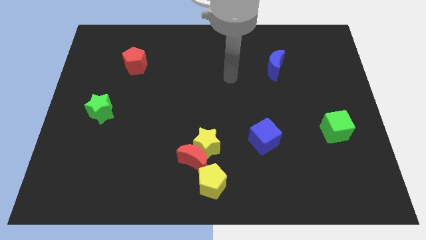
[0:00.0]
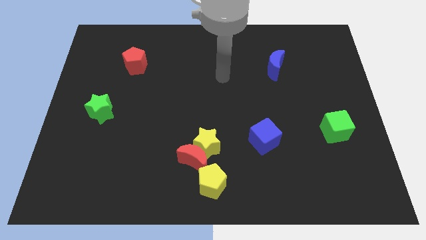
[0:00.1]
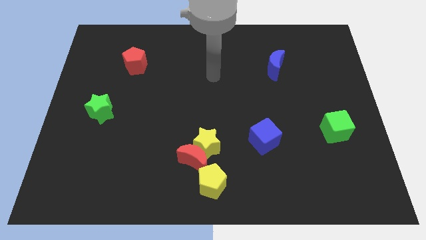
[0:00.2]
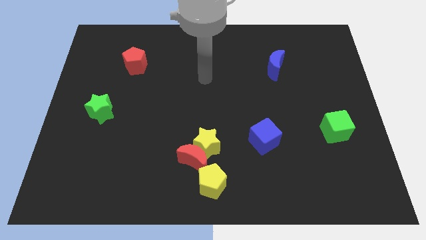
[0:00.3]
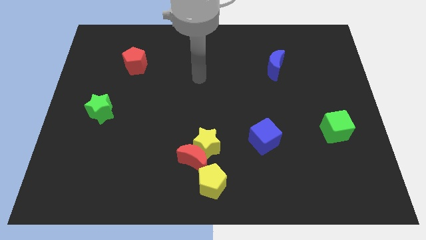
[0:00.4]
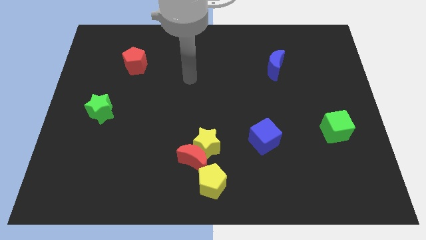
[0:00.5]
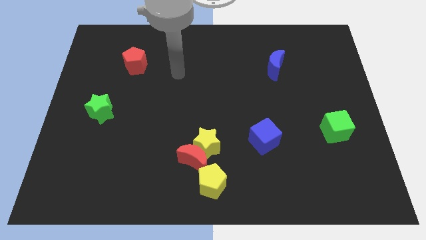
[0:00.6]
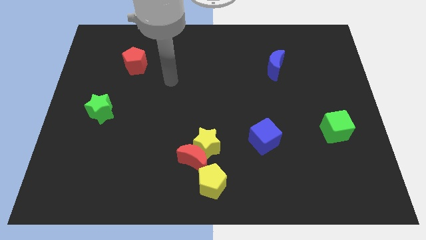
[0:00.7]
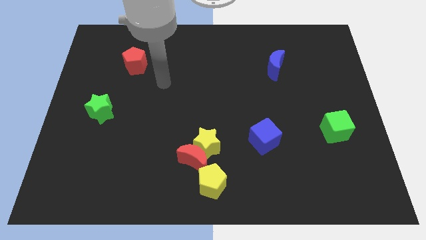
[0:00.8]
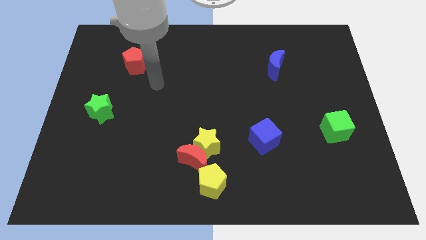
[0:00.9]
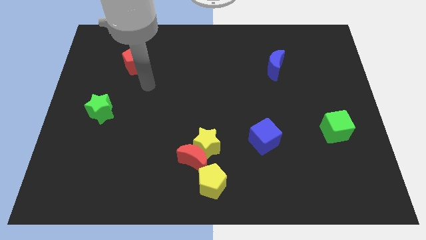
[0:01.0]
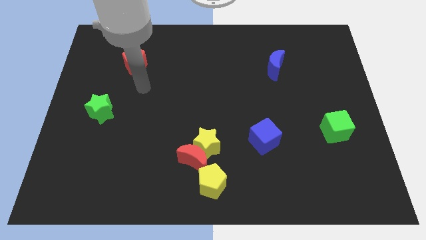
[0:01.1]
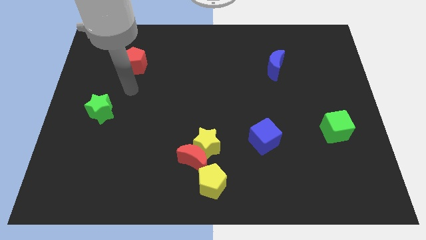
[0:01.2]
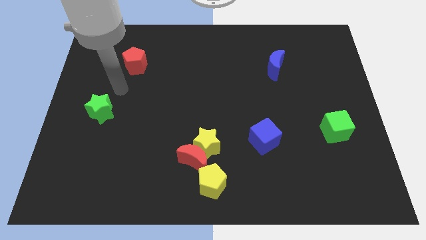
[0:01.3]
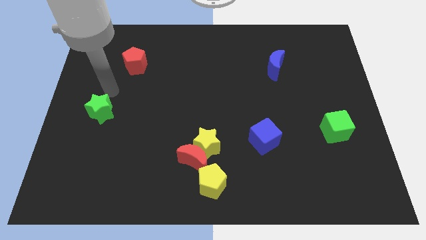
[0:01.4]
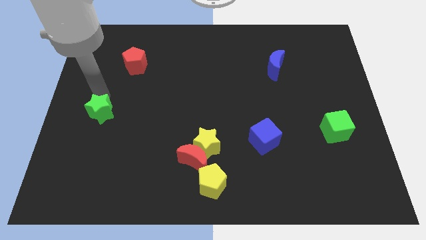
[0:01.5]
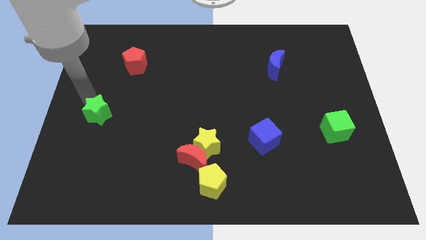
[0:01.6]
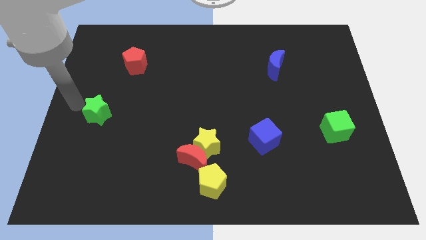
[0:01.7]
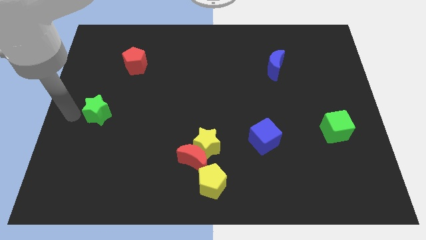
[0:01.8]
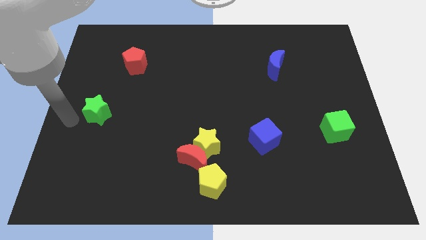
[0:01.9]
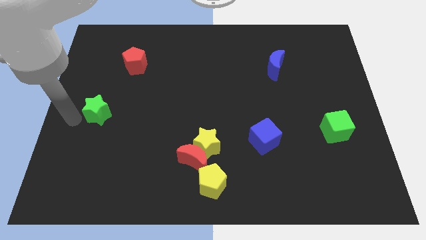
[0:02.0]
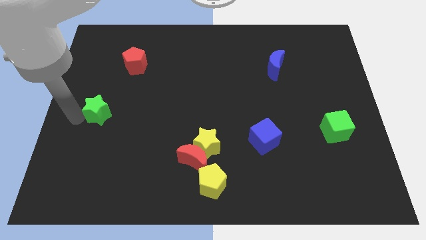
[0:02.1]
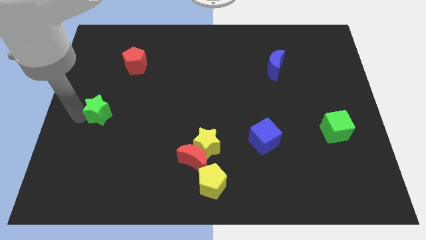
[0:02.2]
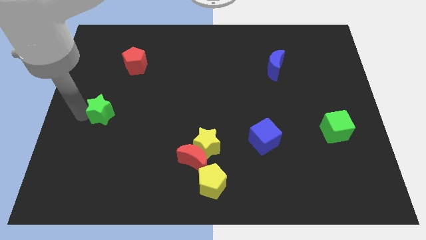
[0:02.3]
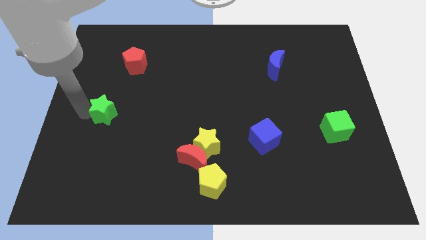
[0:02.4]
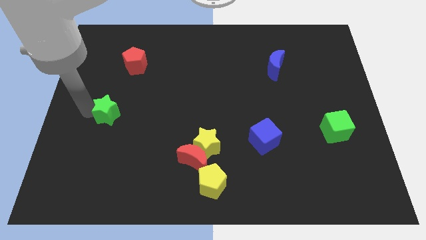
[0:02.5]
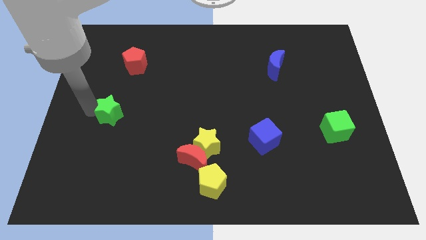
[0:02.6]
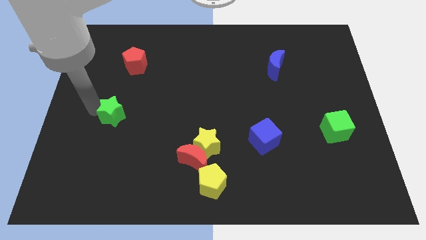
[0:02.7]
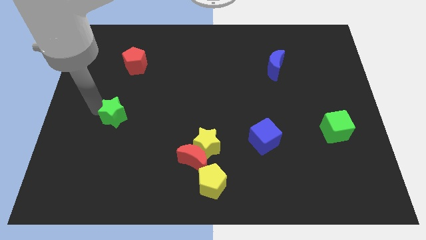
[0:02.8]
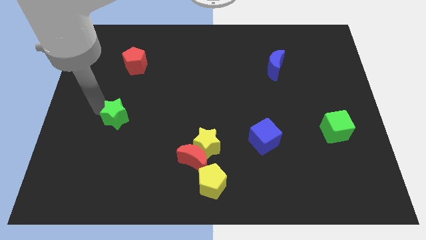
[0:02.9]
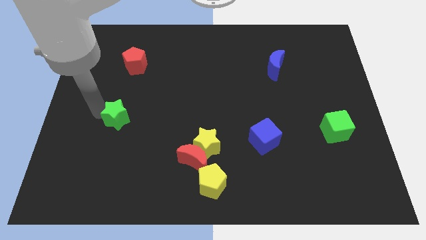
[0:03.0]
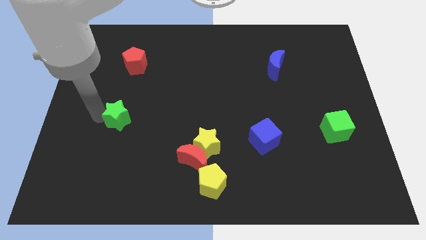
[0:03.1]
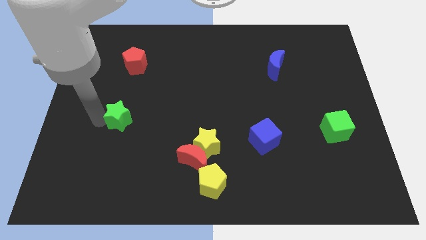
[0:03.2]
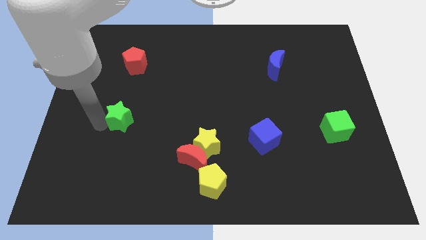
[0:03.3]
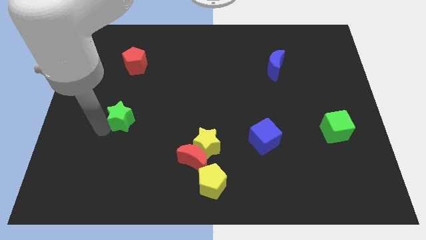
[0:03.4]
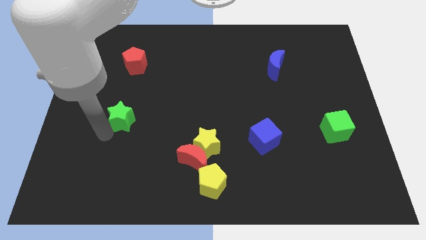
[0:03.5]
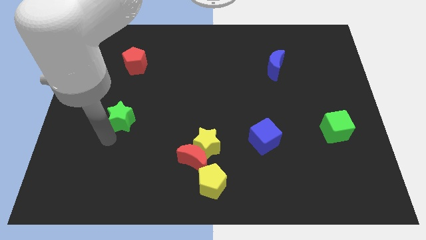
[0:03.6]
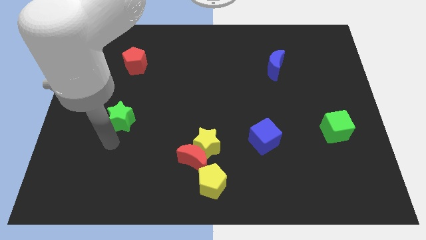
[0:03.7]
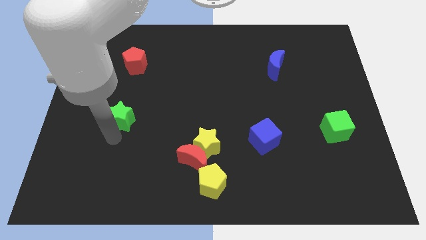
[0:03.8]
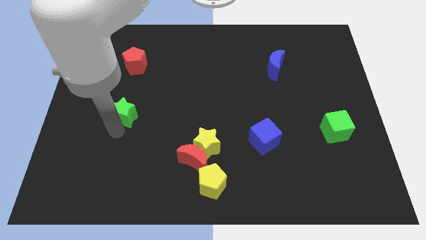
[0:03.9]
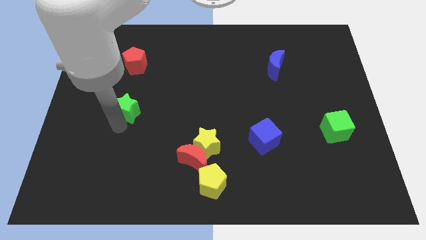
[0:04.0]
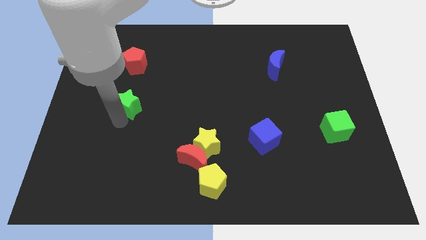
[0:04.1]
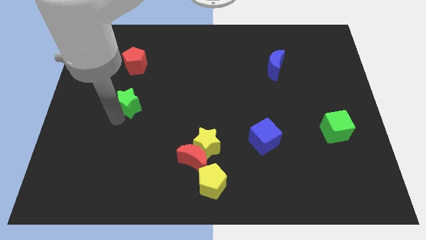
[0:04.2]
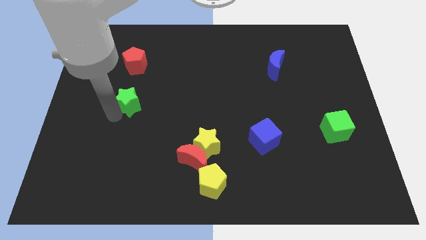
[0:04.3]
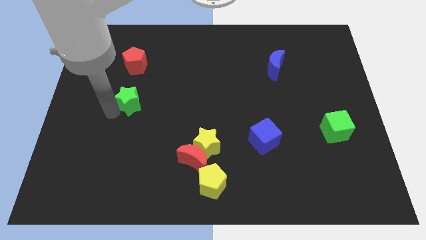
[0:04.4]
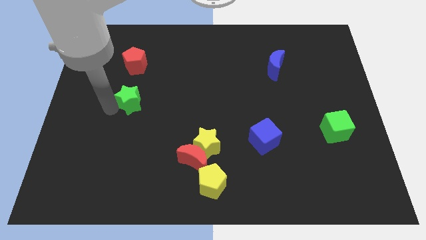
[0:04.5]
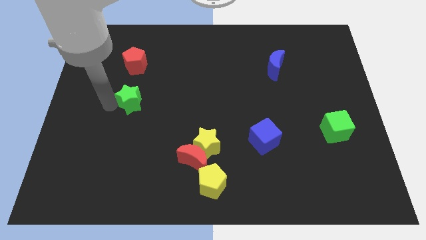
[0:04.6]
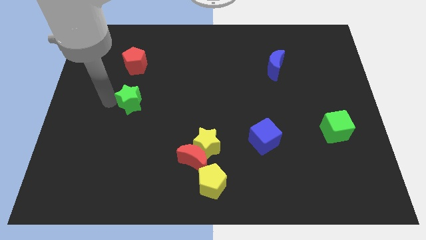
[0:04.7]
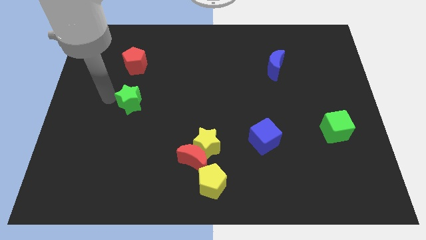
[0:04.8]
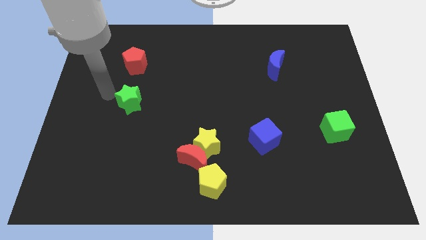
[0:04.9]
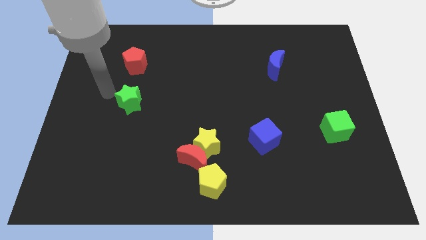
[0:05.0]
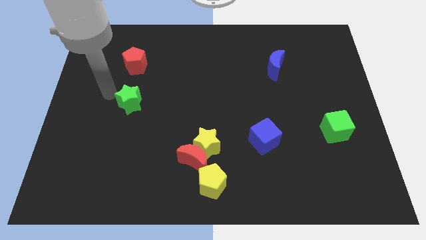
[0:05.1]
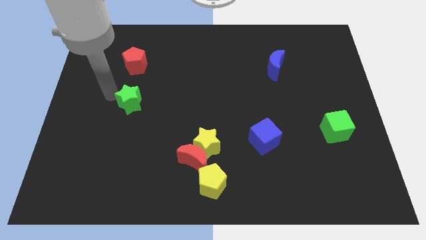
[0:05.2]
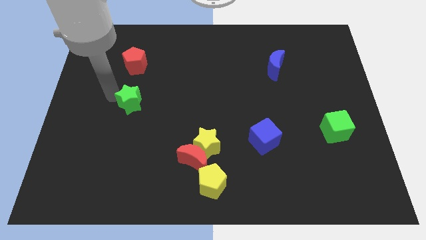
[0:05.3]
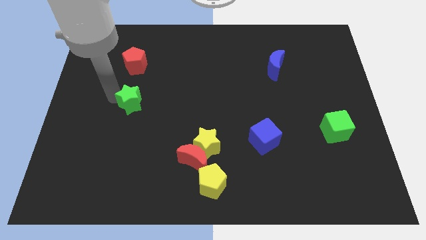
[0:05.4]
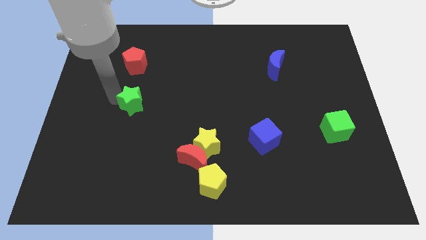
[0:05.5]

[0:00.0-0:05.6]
slightly move the green star to the right

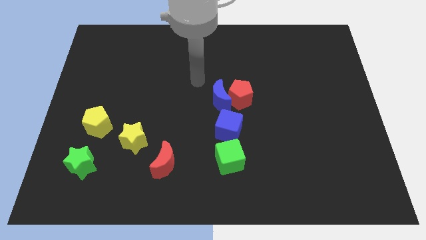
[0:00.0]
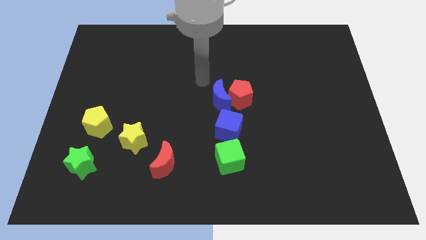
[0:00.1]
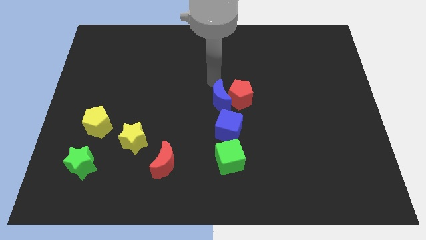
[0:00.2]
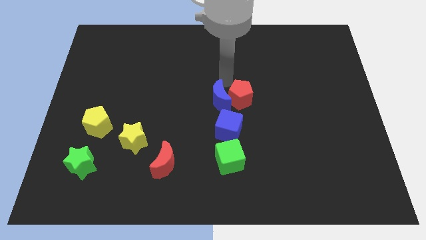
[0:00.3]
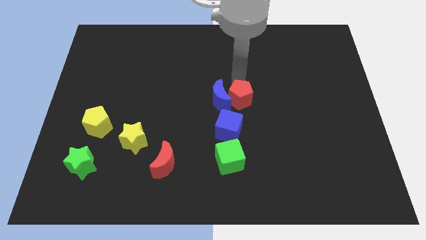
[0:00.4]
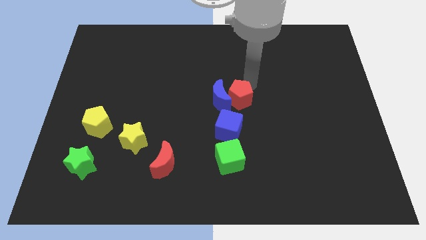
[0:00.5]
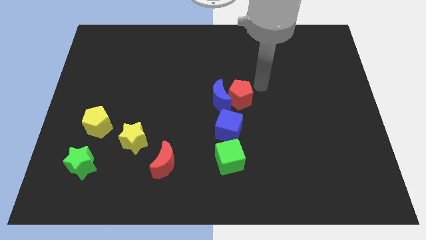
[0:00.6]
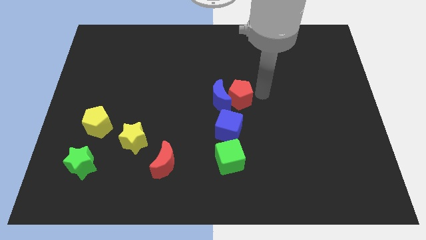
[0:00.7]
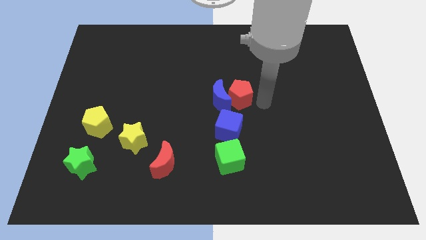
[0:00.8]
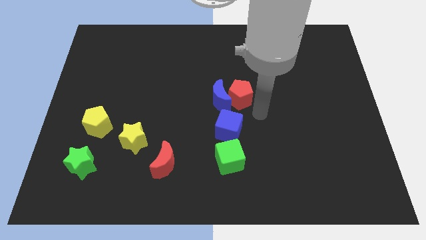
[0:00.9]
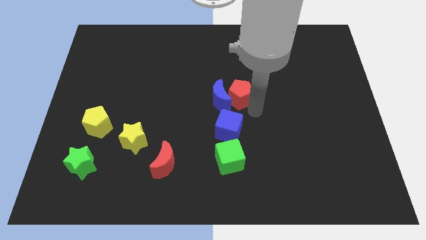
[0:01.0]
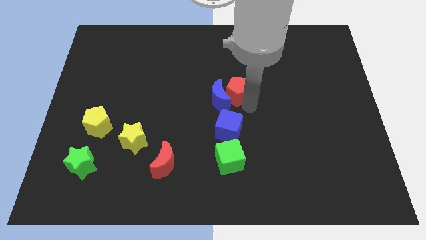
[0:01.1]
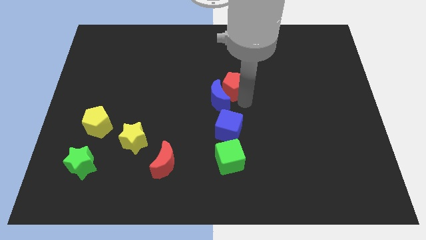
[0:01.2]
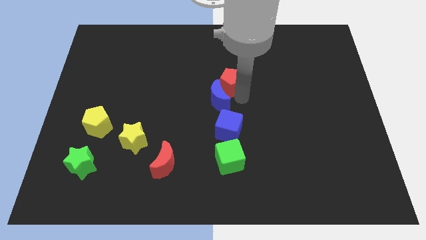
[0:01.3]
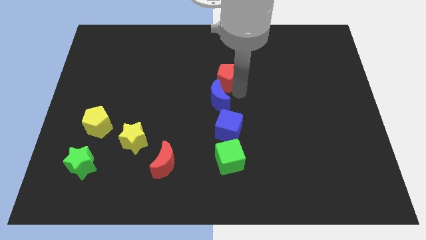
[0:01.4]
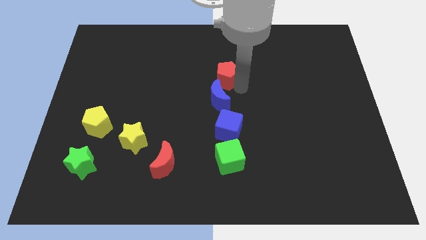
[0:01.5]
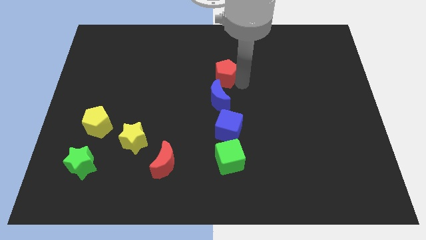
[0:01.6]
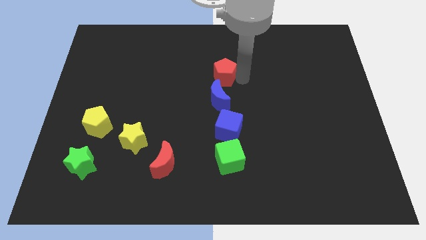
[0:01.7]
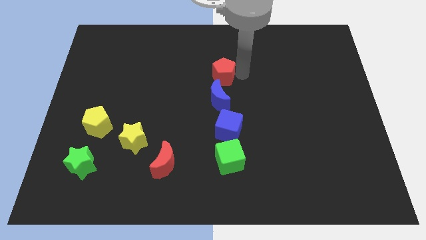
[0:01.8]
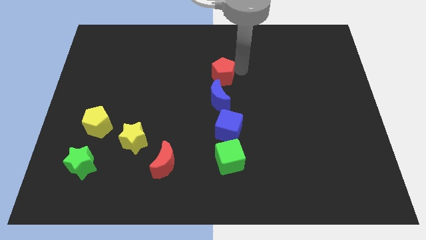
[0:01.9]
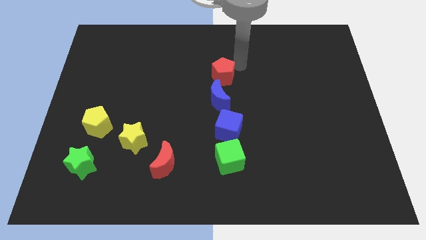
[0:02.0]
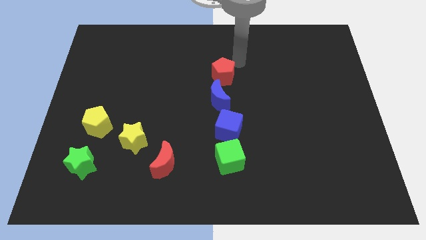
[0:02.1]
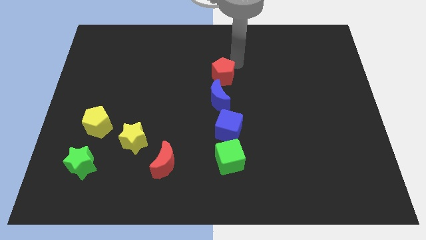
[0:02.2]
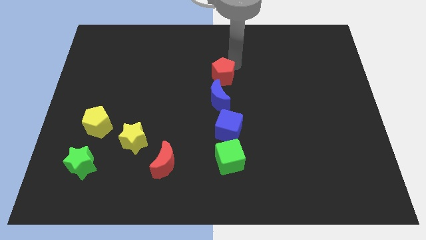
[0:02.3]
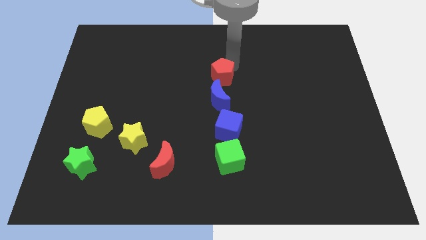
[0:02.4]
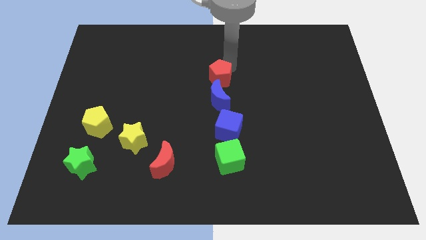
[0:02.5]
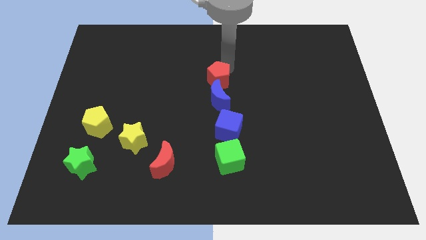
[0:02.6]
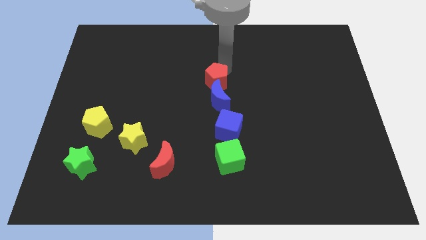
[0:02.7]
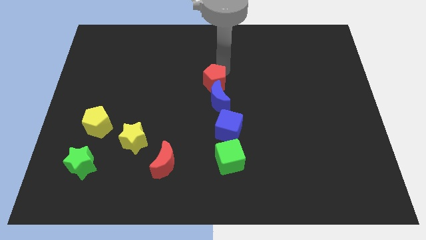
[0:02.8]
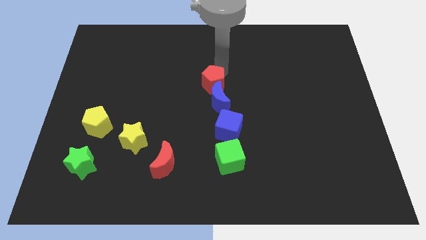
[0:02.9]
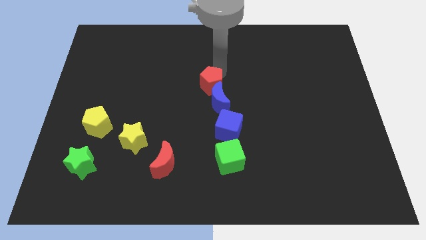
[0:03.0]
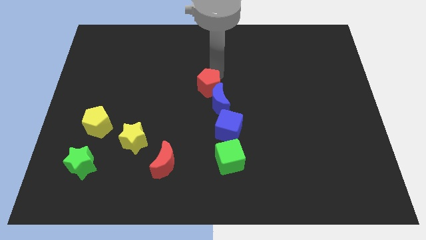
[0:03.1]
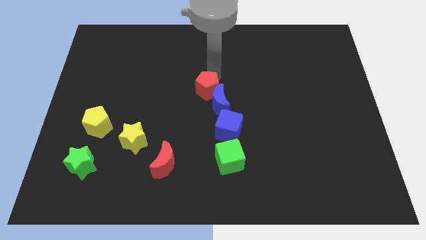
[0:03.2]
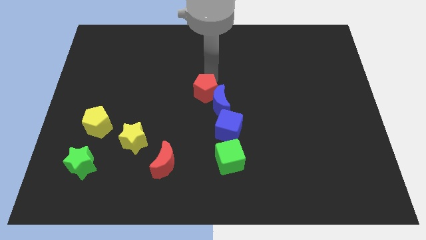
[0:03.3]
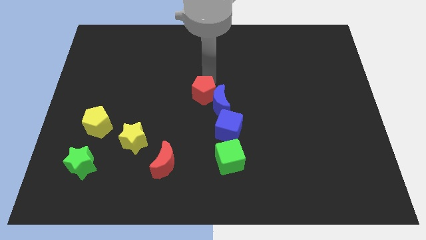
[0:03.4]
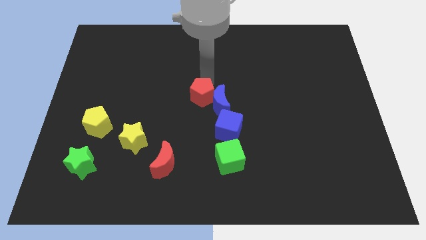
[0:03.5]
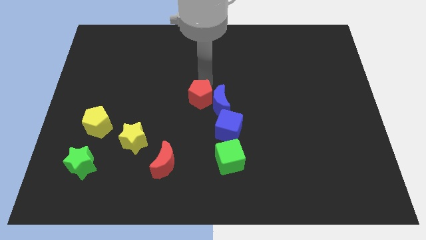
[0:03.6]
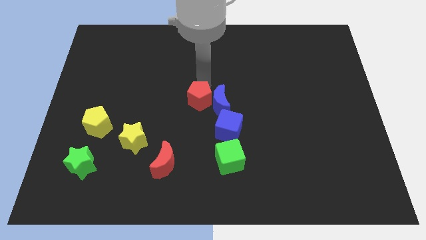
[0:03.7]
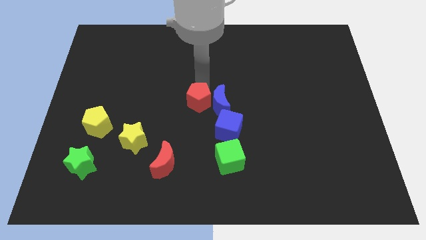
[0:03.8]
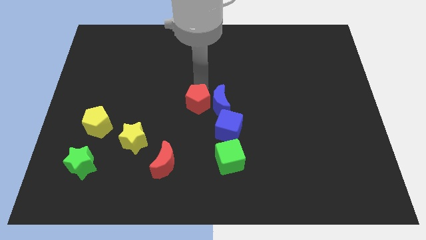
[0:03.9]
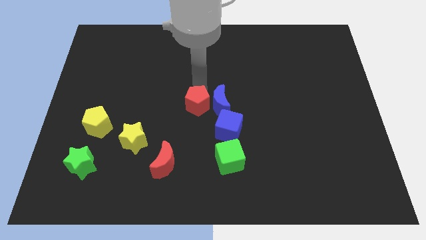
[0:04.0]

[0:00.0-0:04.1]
push the red pentagon diagonally down and left a little
